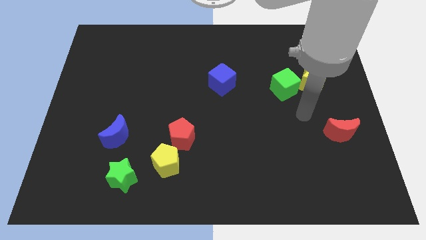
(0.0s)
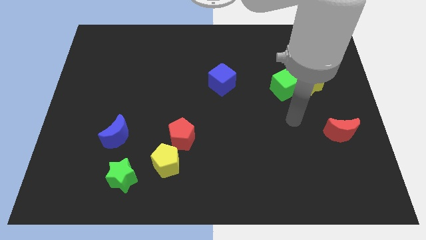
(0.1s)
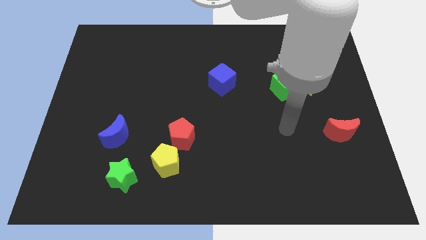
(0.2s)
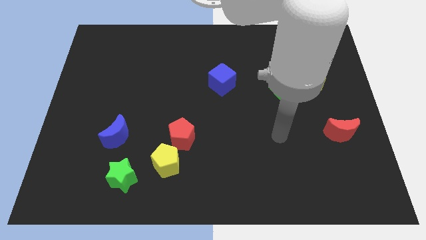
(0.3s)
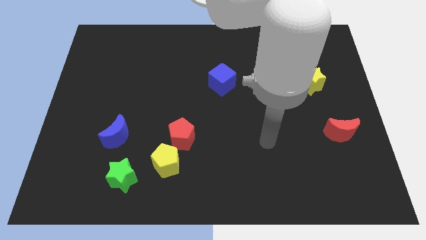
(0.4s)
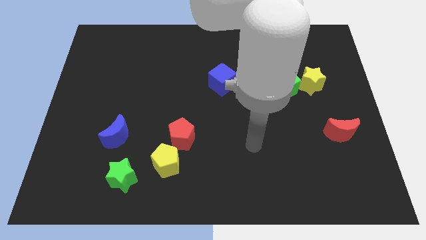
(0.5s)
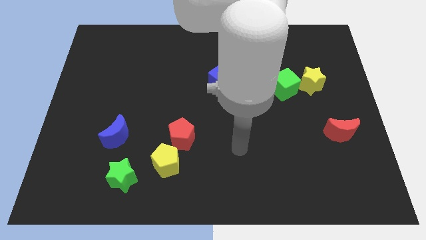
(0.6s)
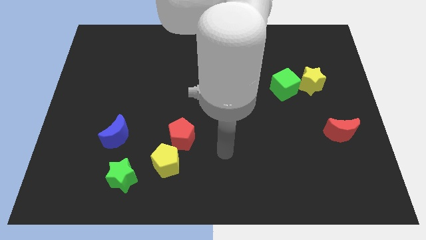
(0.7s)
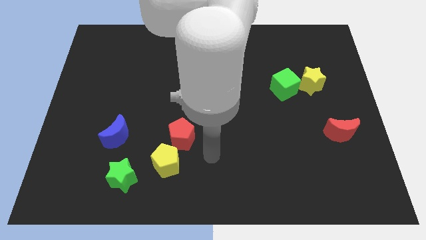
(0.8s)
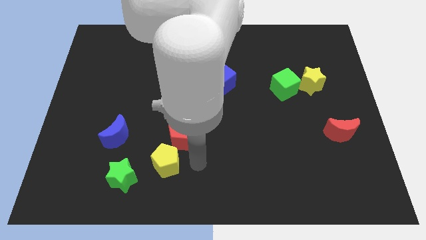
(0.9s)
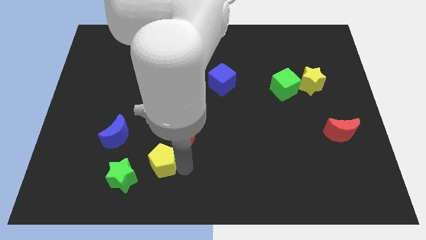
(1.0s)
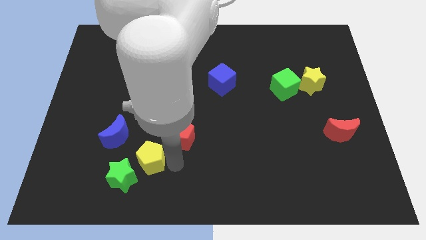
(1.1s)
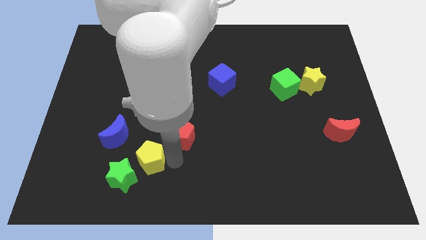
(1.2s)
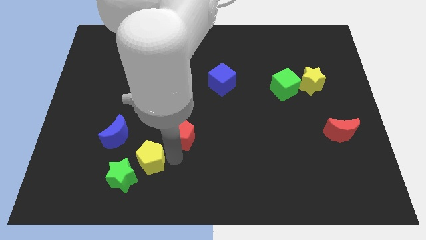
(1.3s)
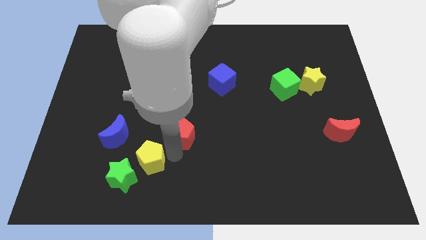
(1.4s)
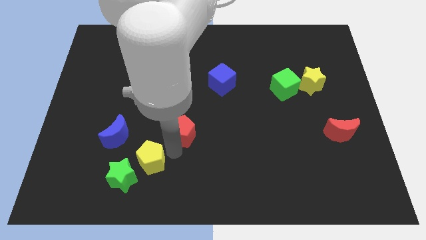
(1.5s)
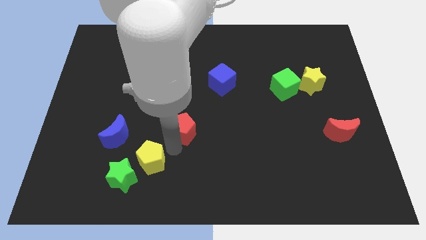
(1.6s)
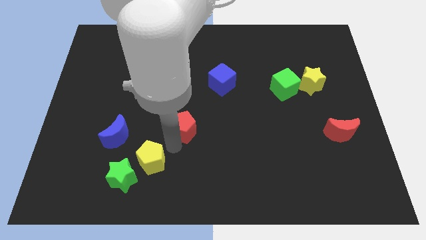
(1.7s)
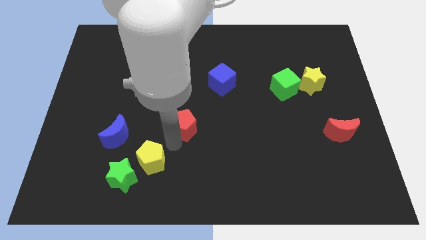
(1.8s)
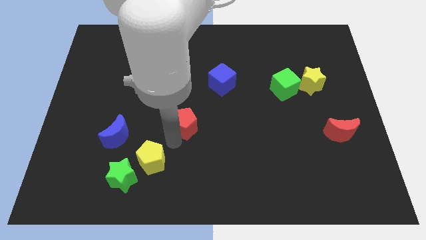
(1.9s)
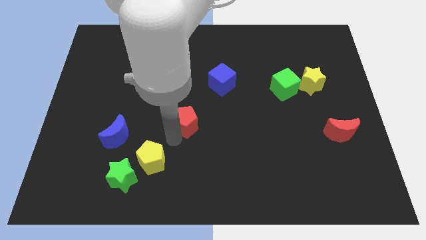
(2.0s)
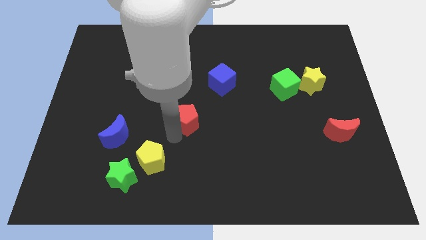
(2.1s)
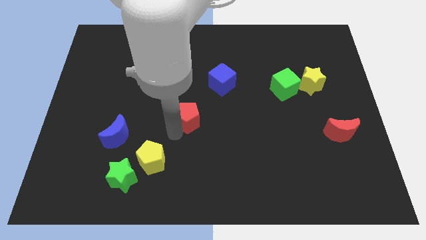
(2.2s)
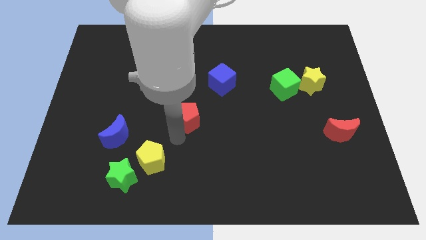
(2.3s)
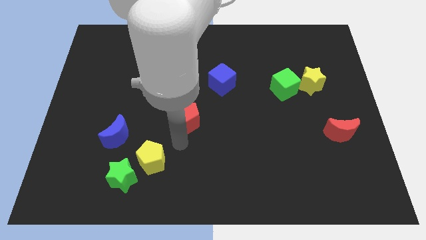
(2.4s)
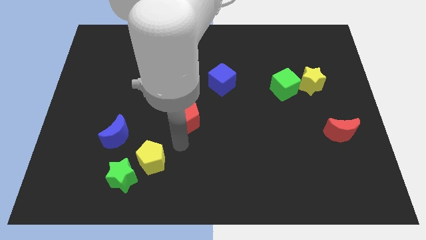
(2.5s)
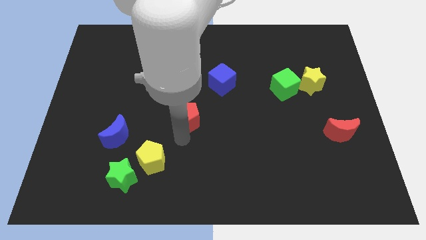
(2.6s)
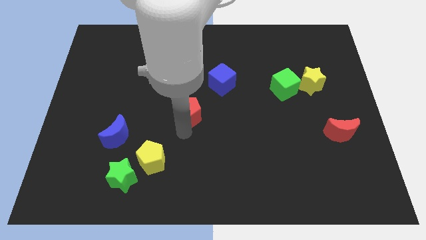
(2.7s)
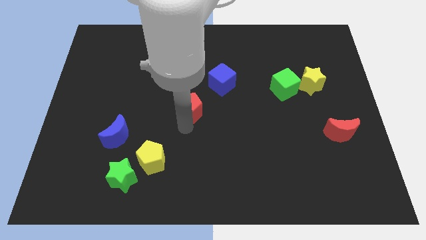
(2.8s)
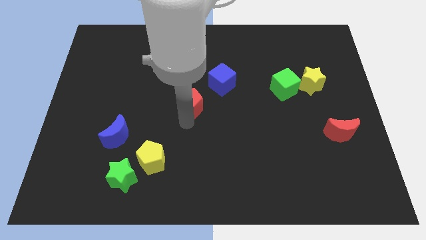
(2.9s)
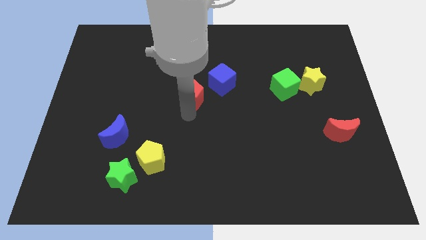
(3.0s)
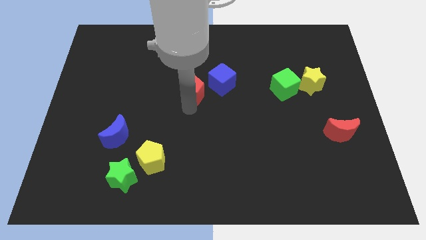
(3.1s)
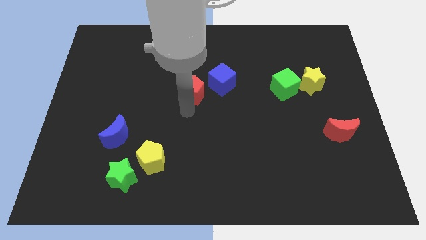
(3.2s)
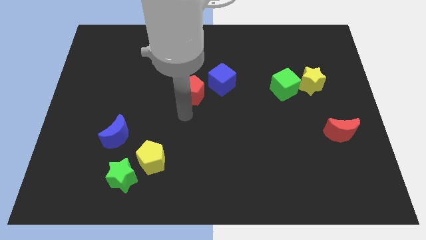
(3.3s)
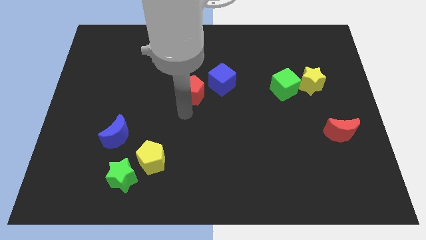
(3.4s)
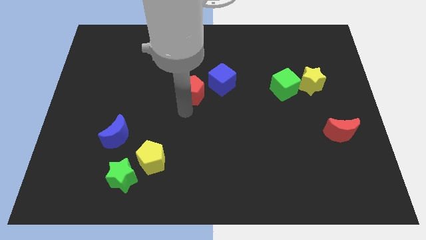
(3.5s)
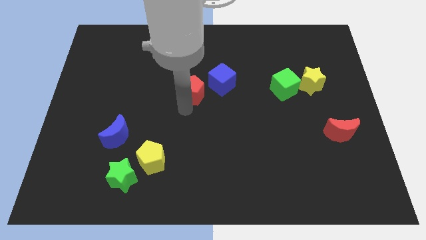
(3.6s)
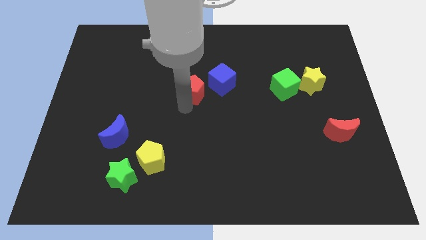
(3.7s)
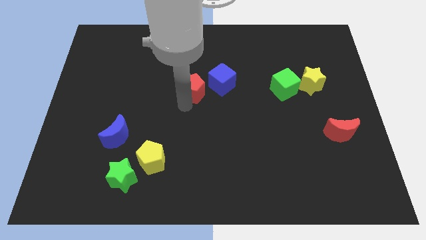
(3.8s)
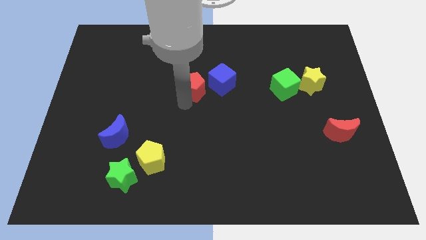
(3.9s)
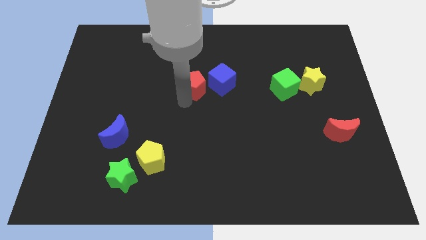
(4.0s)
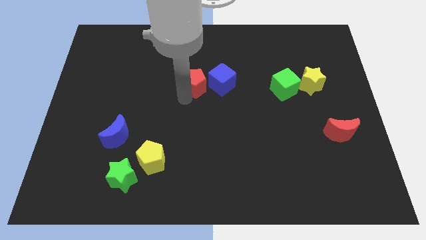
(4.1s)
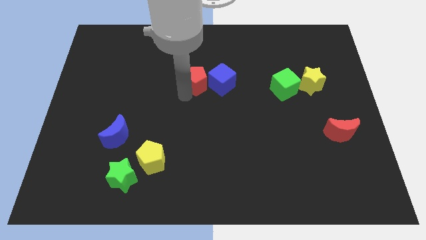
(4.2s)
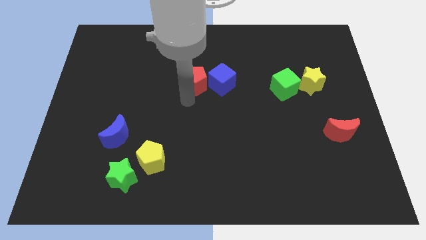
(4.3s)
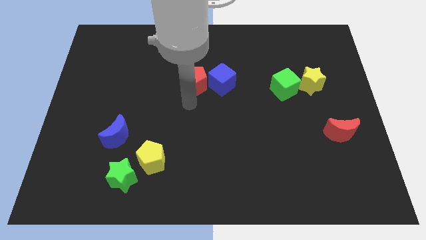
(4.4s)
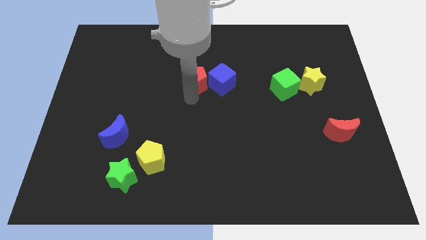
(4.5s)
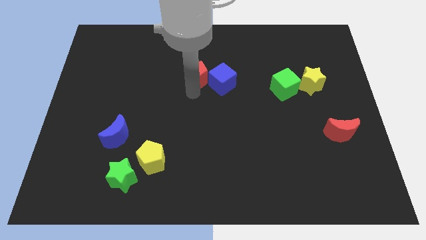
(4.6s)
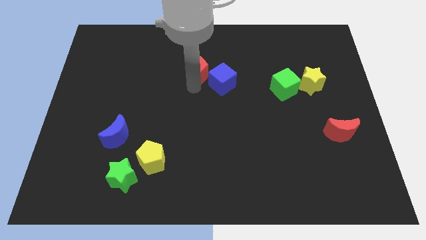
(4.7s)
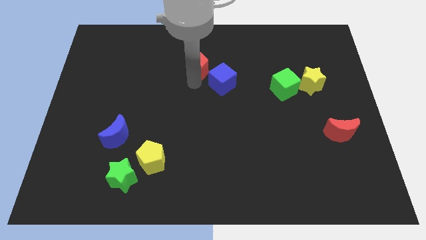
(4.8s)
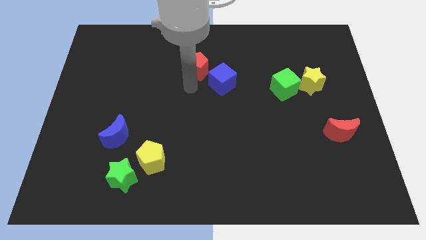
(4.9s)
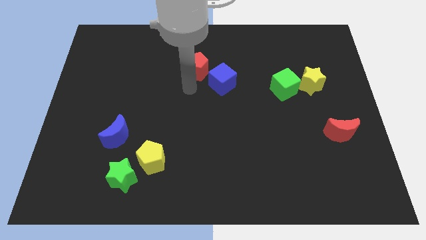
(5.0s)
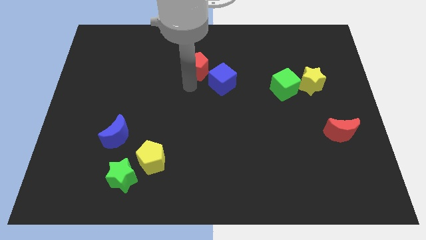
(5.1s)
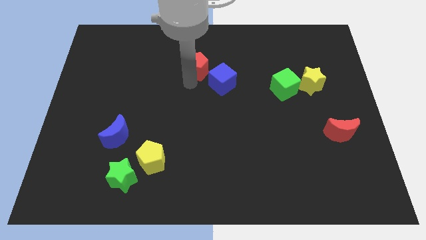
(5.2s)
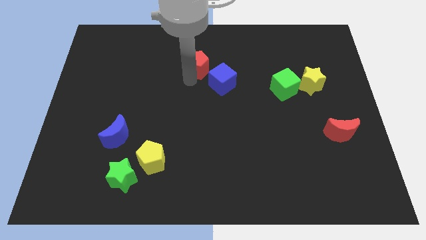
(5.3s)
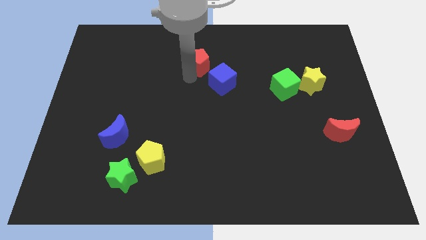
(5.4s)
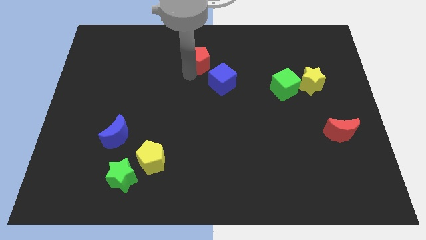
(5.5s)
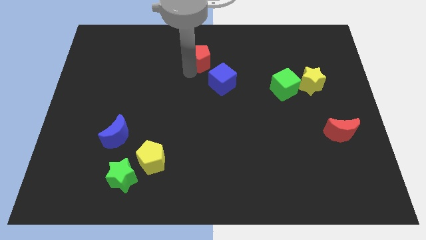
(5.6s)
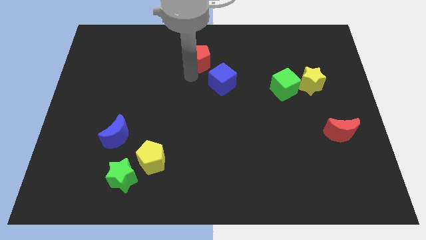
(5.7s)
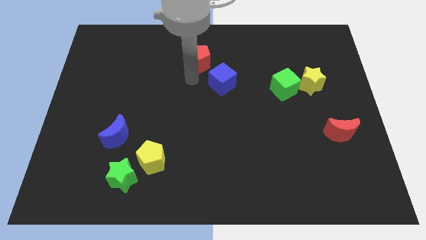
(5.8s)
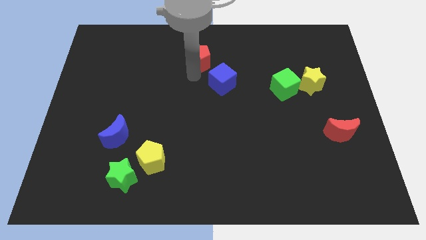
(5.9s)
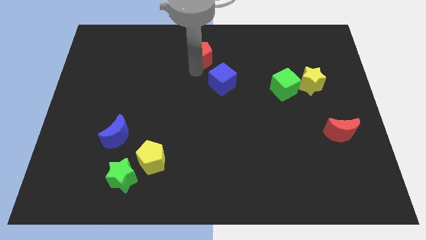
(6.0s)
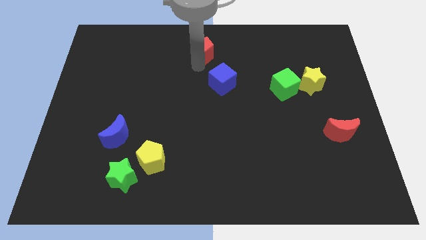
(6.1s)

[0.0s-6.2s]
push the red pentagon to the top side
